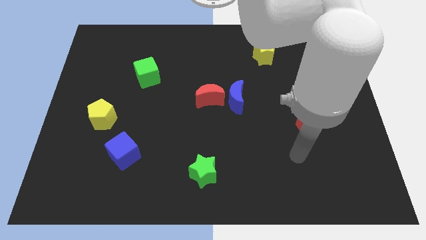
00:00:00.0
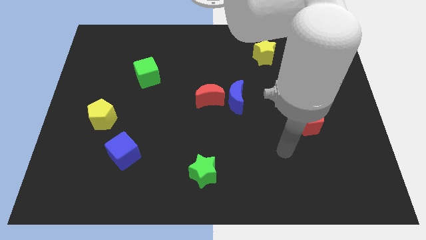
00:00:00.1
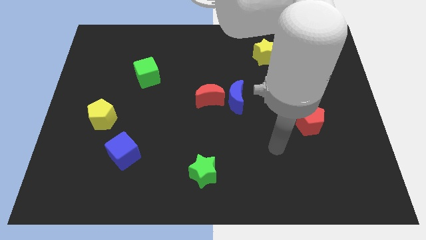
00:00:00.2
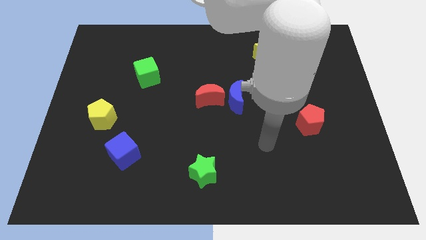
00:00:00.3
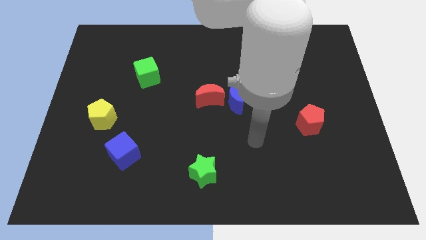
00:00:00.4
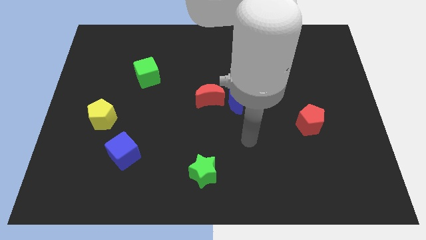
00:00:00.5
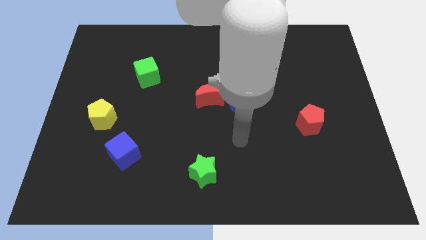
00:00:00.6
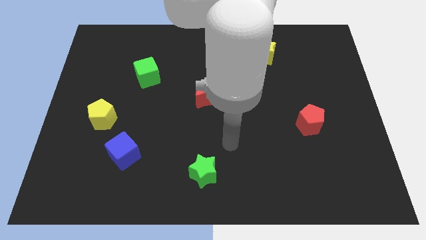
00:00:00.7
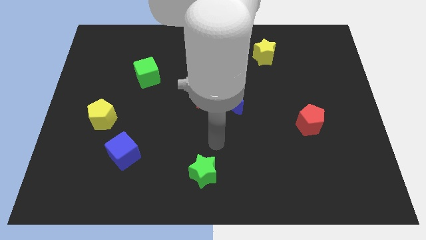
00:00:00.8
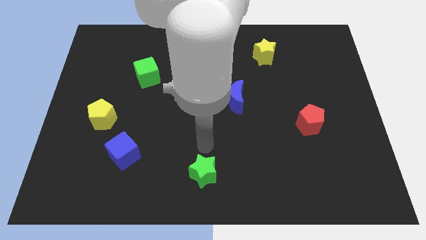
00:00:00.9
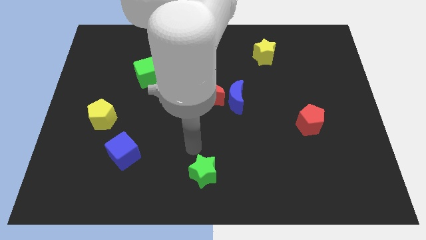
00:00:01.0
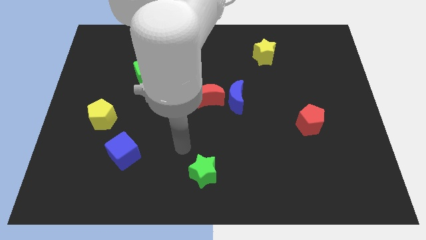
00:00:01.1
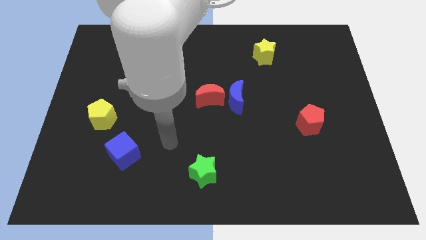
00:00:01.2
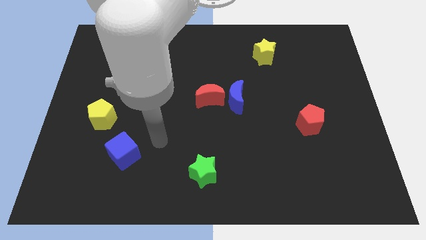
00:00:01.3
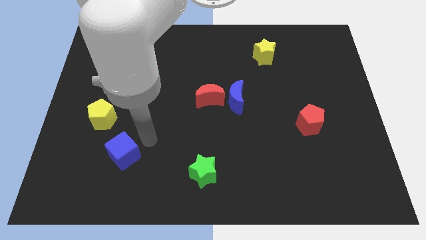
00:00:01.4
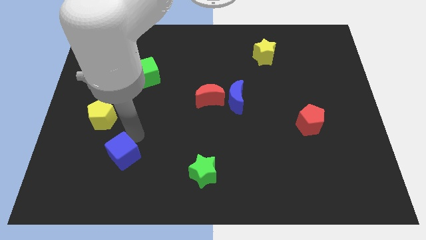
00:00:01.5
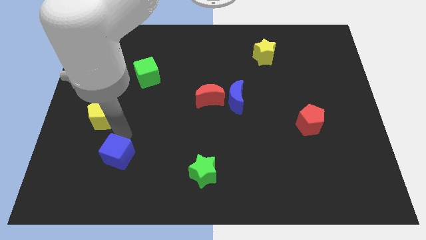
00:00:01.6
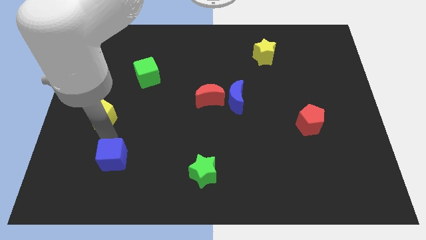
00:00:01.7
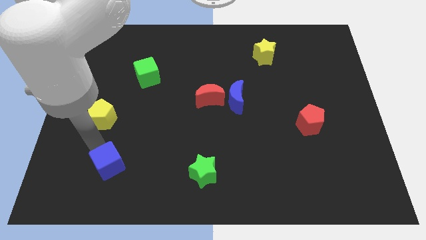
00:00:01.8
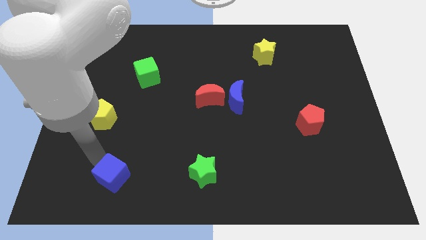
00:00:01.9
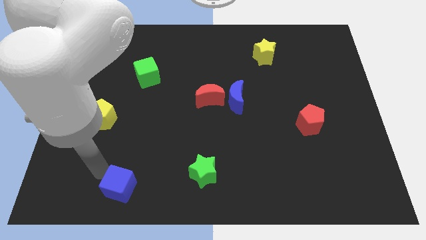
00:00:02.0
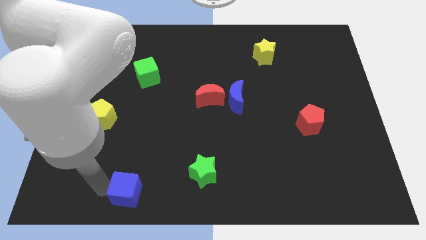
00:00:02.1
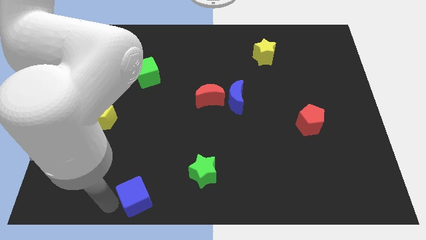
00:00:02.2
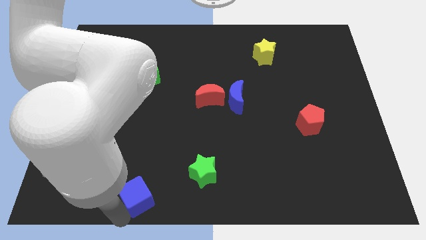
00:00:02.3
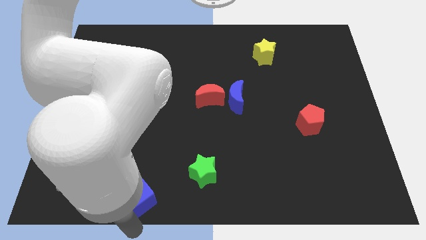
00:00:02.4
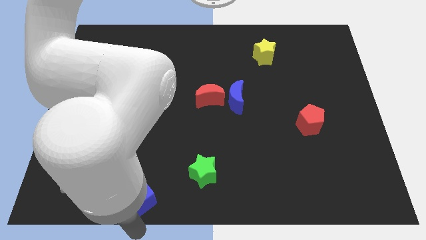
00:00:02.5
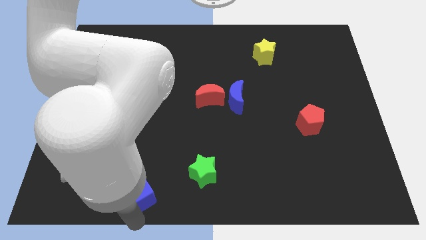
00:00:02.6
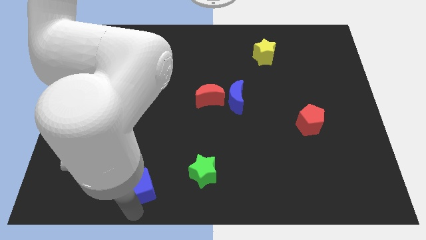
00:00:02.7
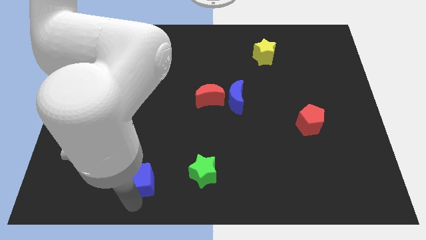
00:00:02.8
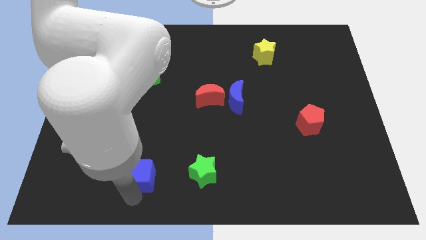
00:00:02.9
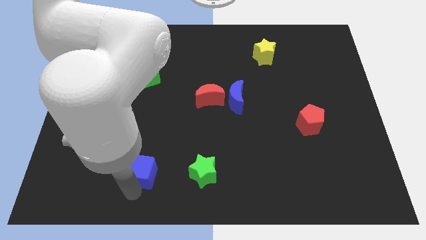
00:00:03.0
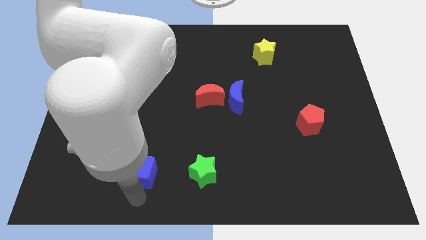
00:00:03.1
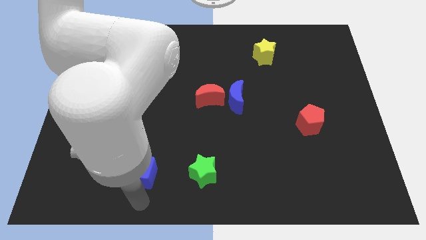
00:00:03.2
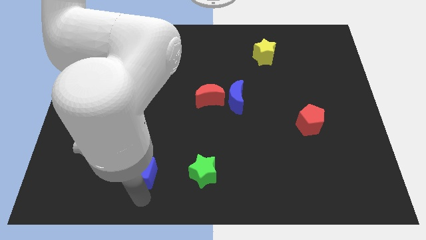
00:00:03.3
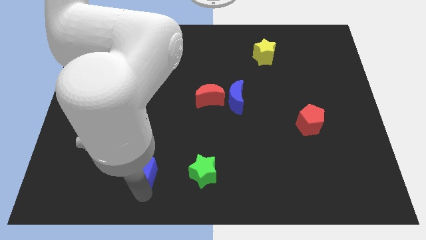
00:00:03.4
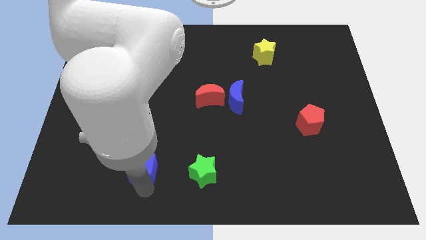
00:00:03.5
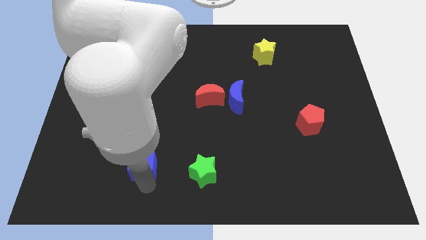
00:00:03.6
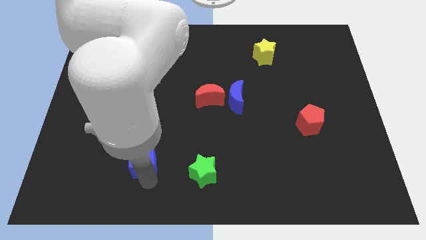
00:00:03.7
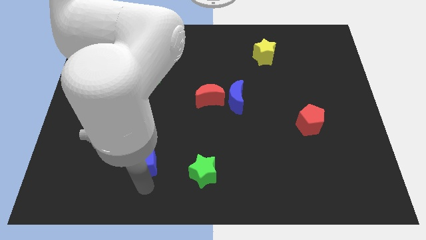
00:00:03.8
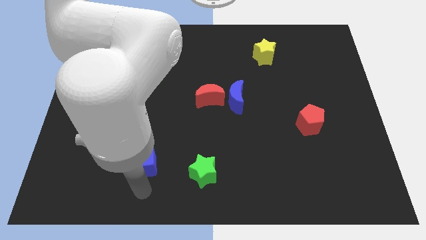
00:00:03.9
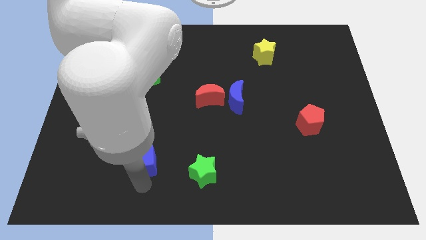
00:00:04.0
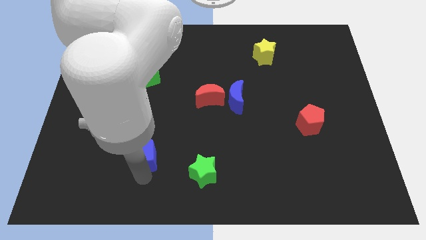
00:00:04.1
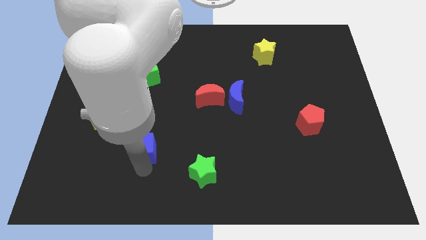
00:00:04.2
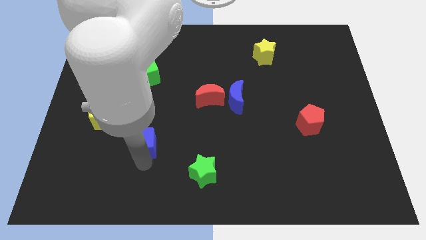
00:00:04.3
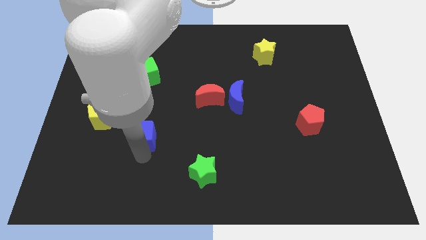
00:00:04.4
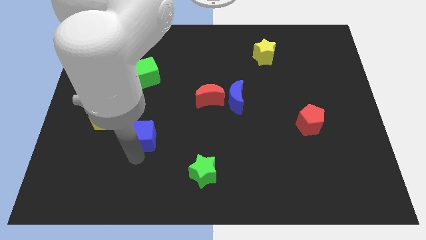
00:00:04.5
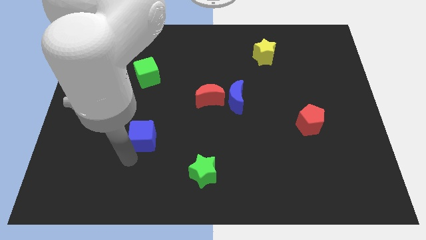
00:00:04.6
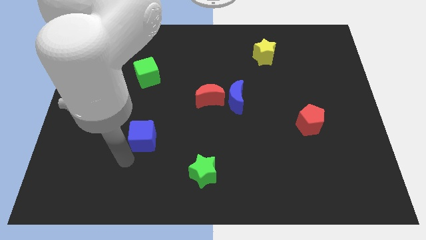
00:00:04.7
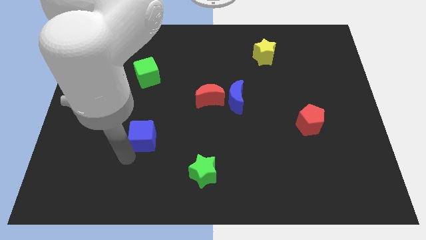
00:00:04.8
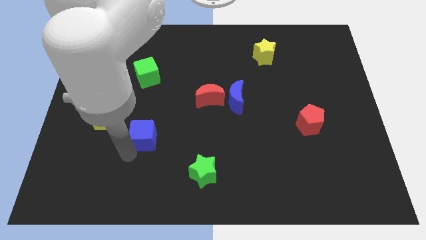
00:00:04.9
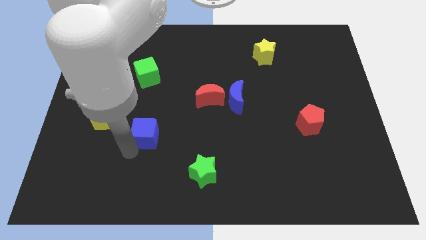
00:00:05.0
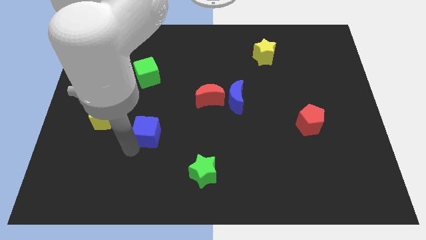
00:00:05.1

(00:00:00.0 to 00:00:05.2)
slightly push the blue cube up and then right

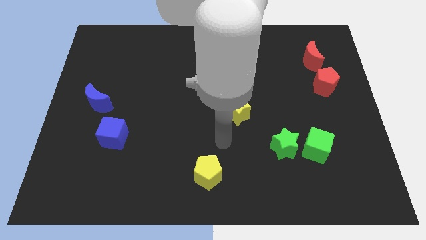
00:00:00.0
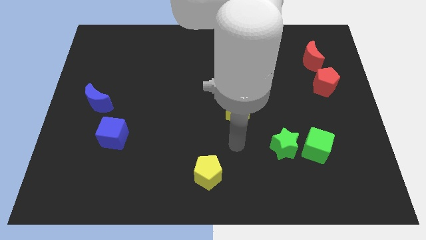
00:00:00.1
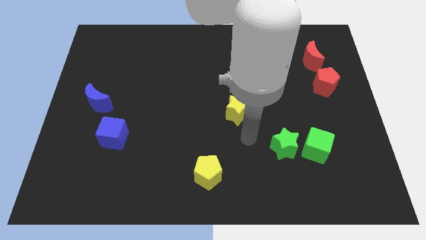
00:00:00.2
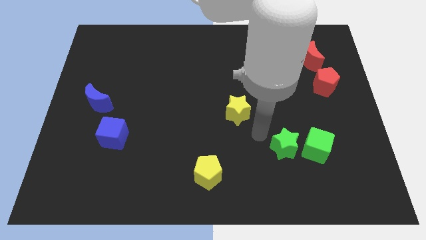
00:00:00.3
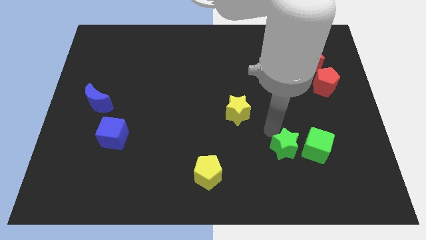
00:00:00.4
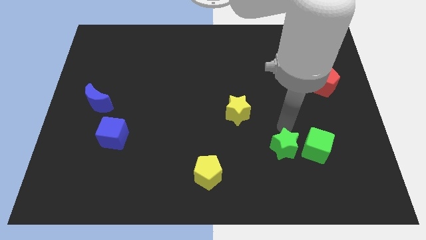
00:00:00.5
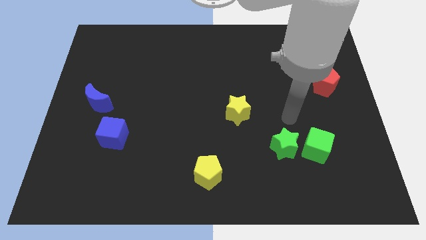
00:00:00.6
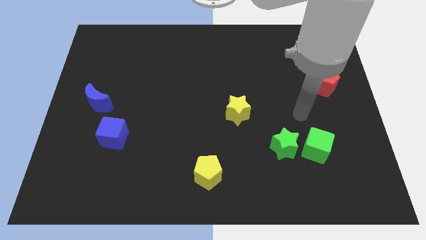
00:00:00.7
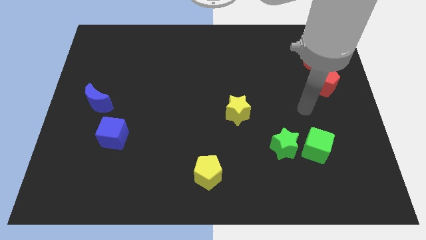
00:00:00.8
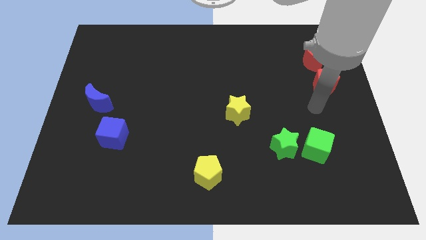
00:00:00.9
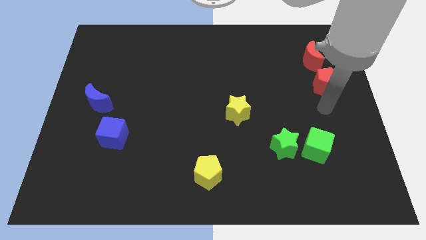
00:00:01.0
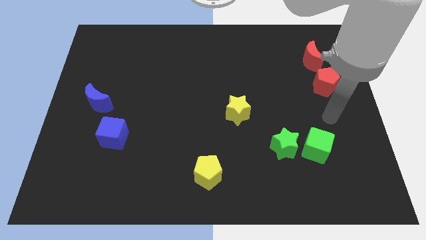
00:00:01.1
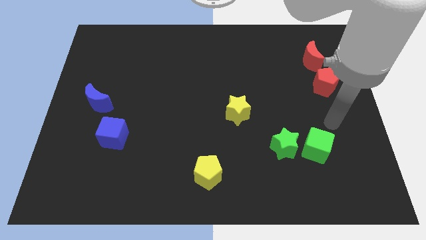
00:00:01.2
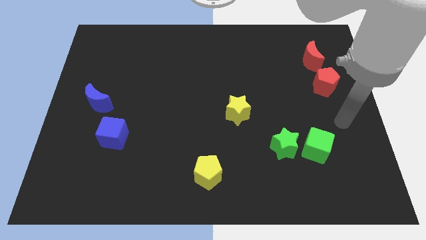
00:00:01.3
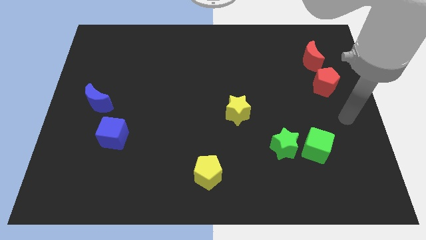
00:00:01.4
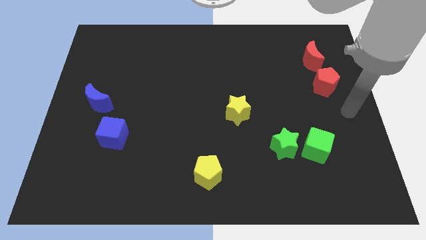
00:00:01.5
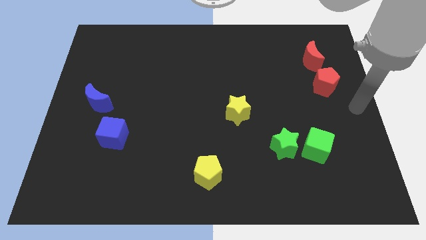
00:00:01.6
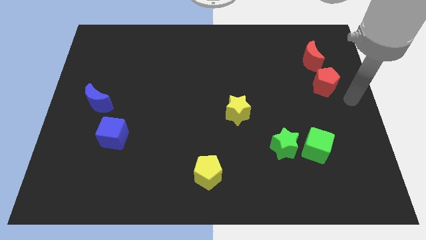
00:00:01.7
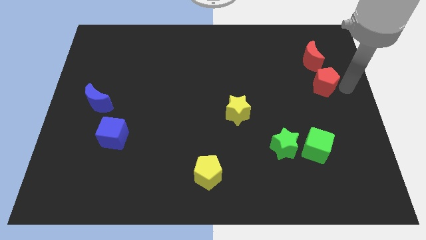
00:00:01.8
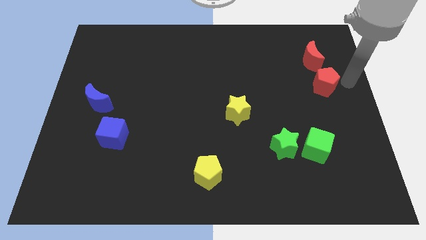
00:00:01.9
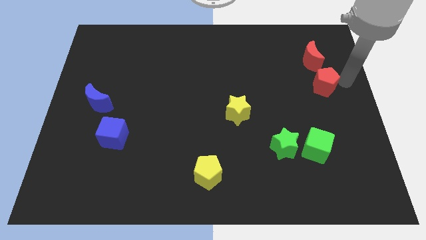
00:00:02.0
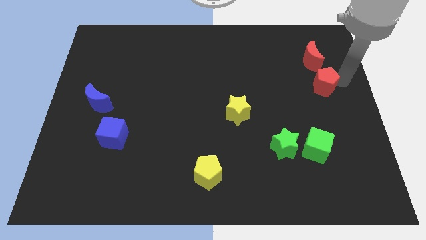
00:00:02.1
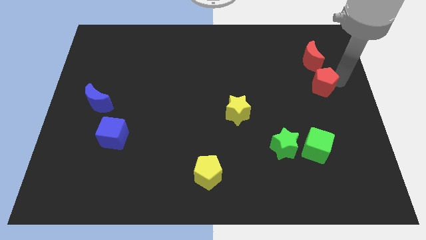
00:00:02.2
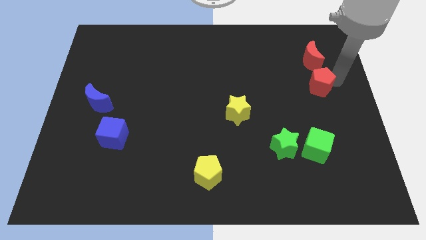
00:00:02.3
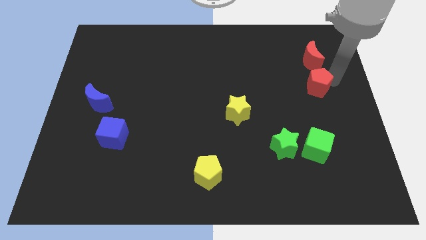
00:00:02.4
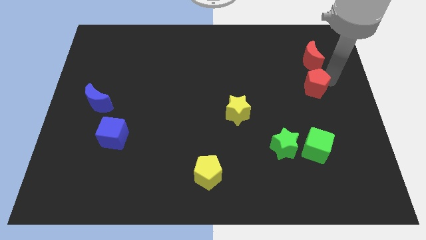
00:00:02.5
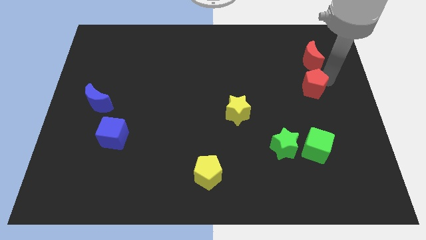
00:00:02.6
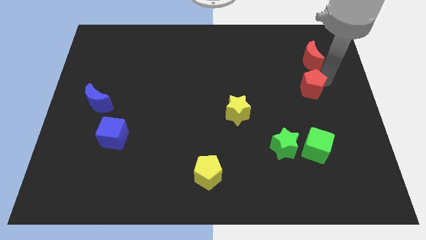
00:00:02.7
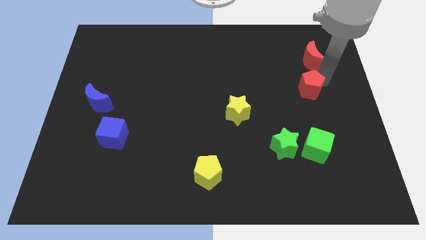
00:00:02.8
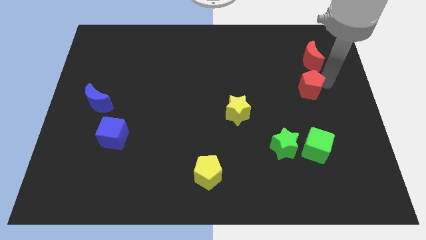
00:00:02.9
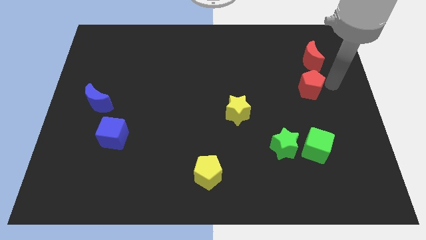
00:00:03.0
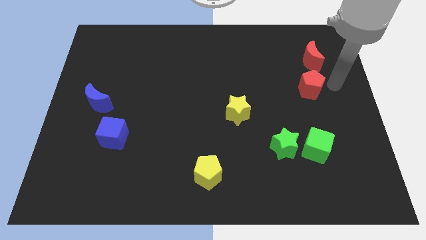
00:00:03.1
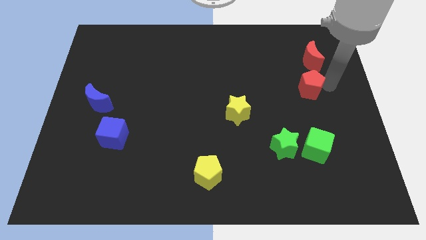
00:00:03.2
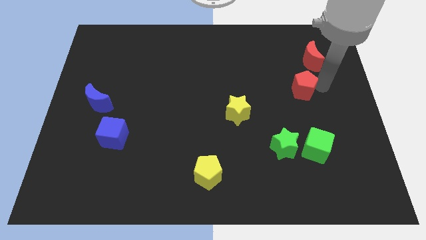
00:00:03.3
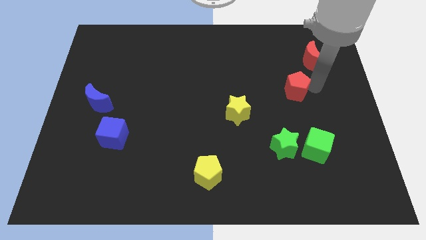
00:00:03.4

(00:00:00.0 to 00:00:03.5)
slightly push the red pentagon left
